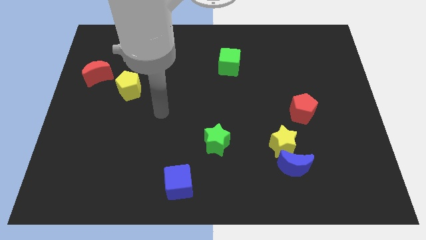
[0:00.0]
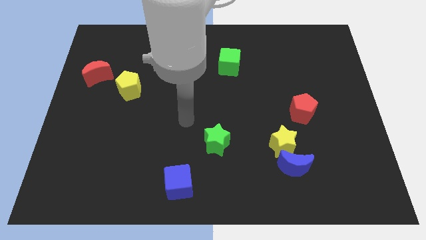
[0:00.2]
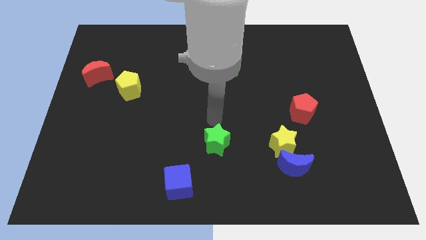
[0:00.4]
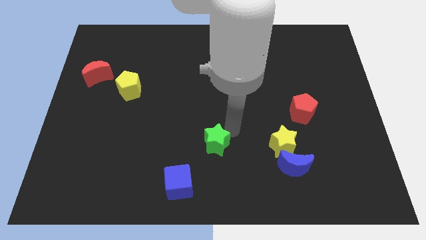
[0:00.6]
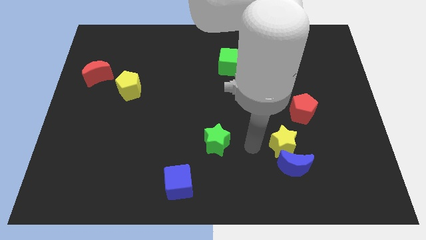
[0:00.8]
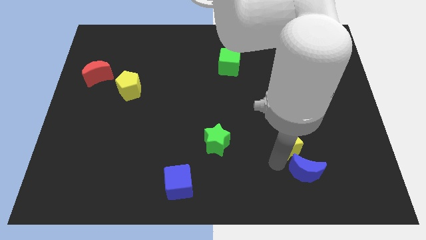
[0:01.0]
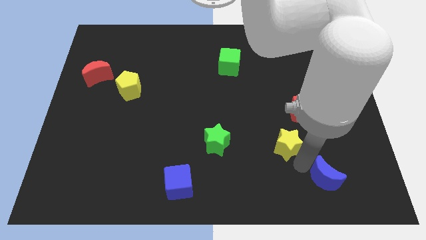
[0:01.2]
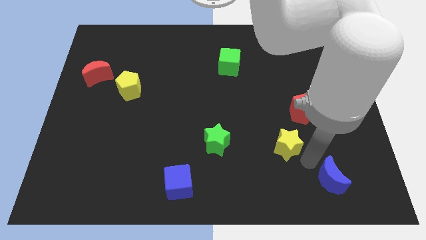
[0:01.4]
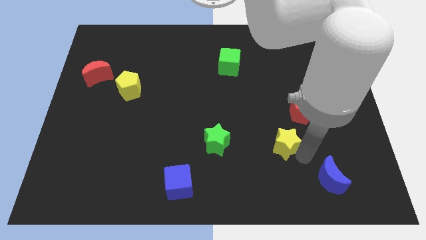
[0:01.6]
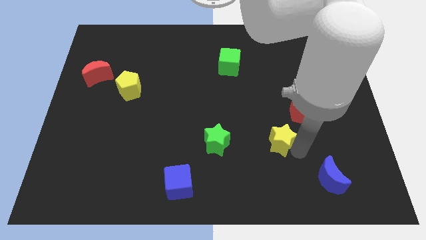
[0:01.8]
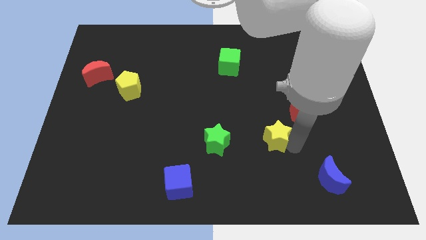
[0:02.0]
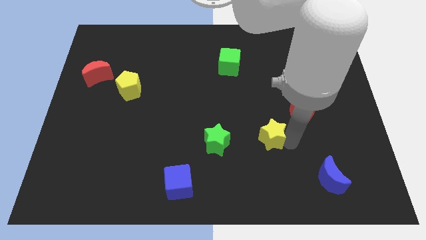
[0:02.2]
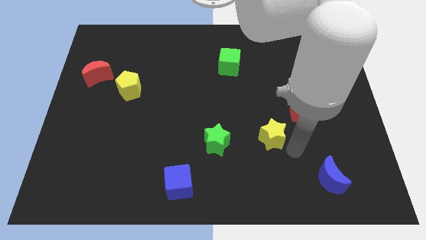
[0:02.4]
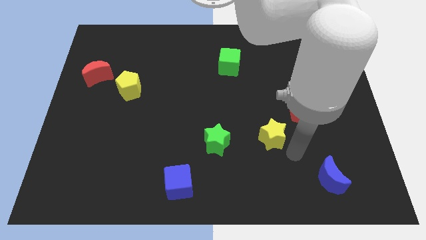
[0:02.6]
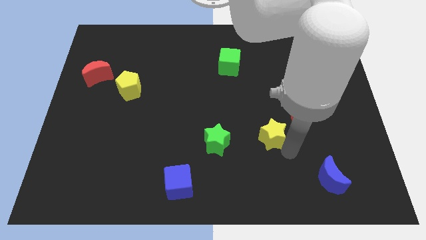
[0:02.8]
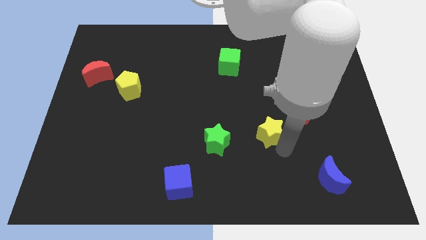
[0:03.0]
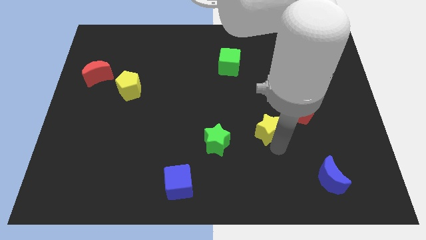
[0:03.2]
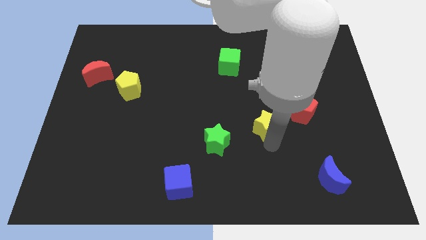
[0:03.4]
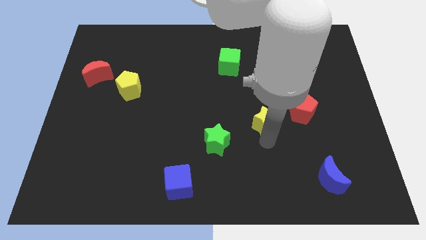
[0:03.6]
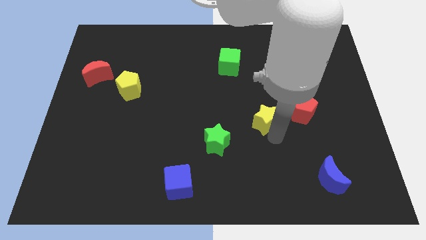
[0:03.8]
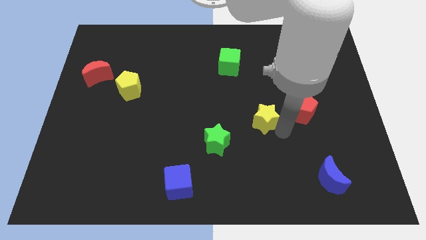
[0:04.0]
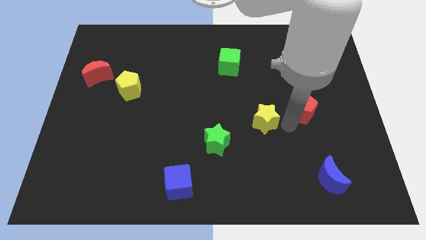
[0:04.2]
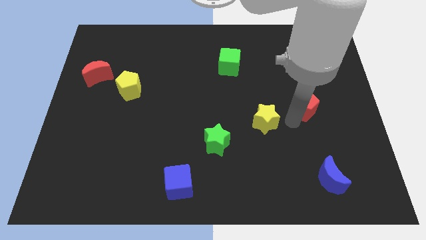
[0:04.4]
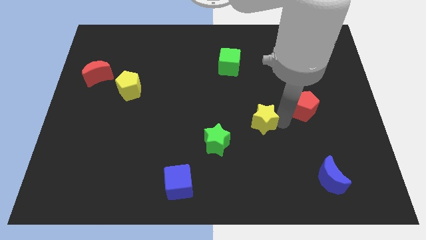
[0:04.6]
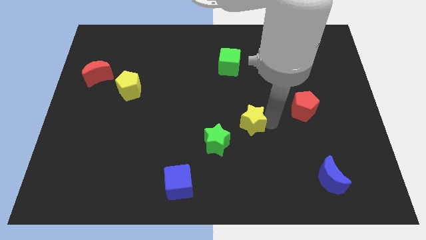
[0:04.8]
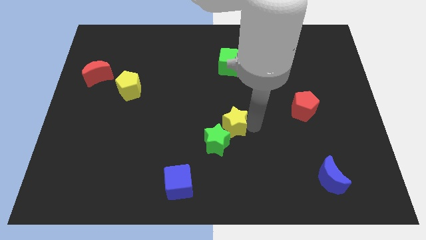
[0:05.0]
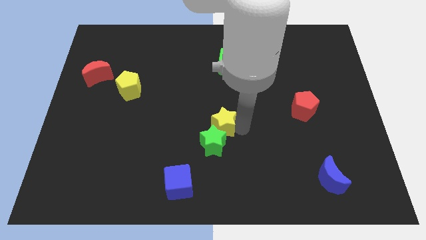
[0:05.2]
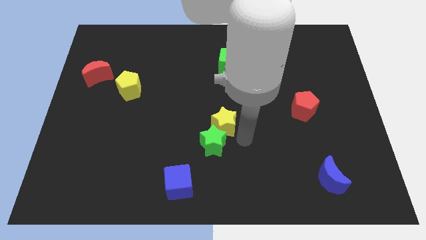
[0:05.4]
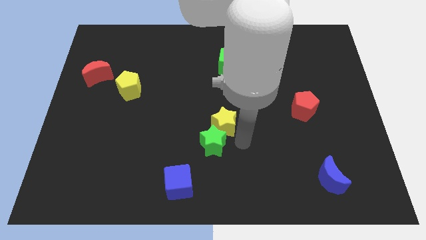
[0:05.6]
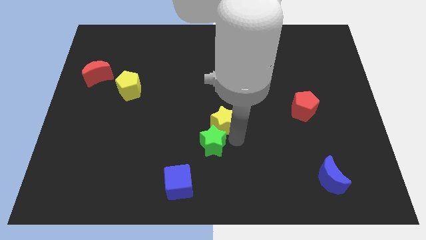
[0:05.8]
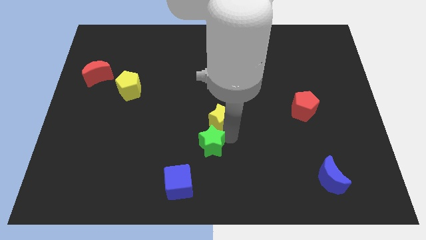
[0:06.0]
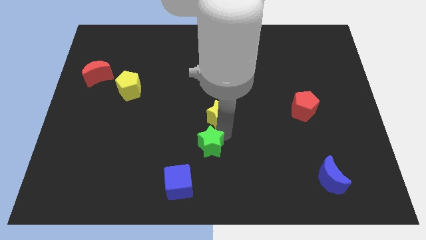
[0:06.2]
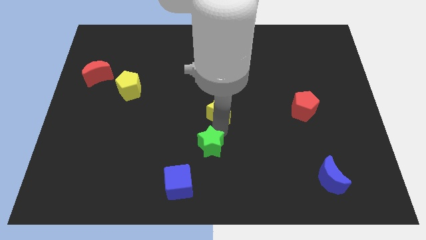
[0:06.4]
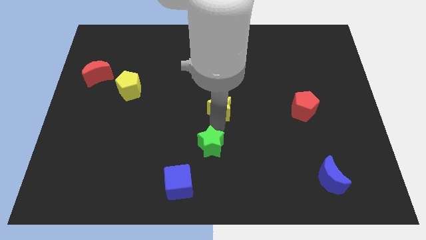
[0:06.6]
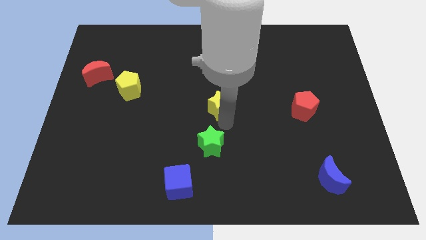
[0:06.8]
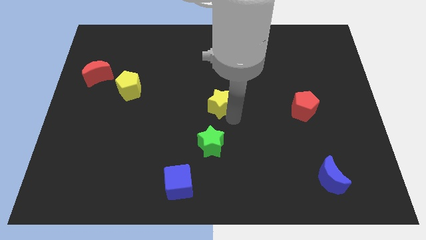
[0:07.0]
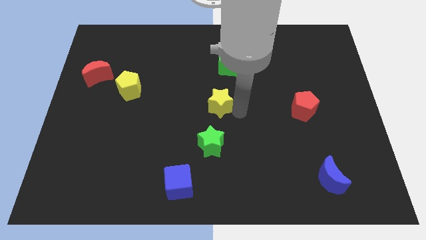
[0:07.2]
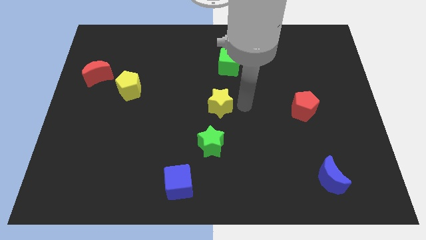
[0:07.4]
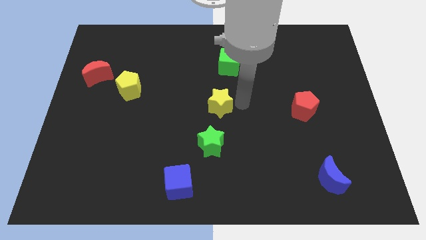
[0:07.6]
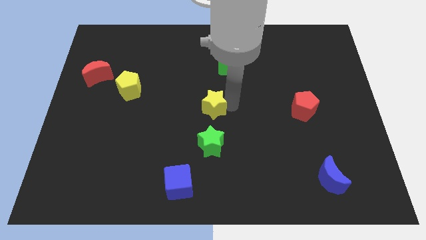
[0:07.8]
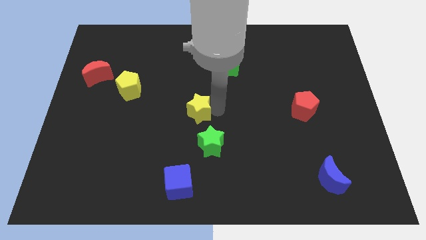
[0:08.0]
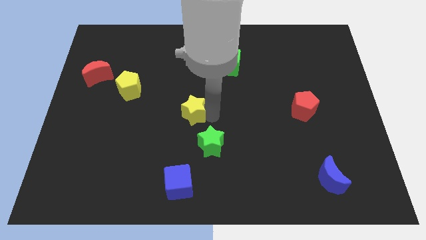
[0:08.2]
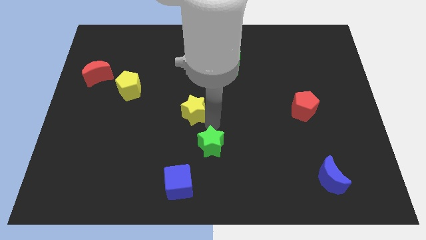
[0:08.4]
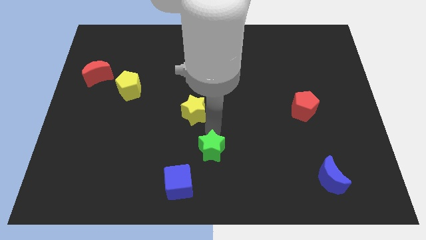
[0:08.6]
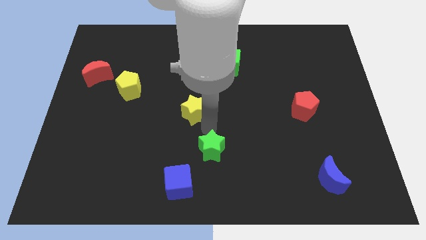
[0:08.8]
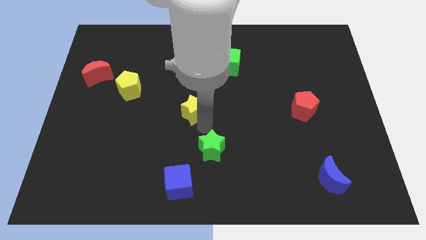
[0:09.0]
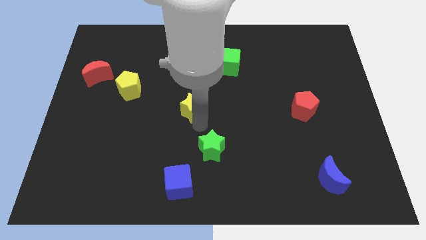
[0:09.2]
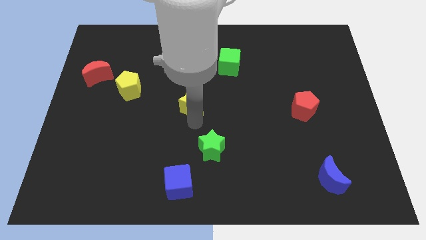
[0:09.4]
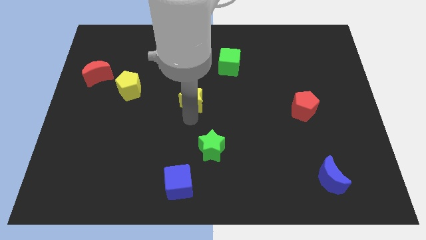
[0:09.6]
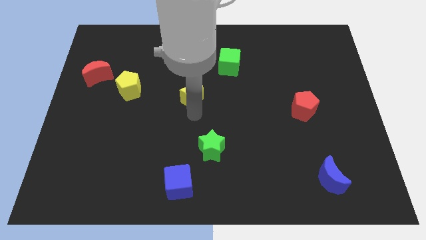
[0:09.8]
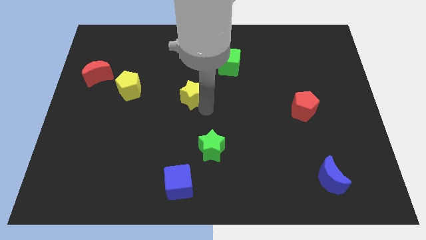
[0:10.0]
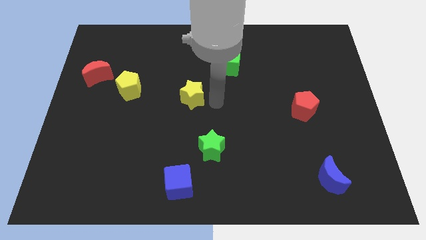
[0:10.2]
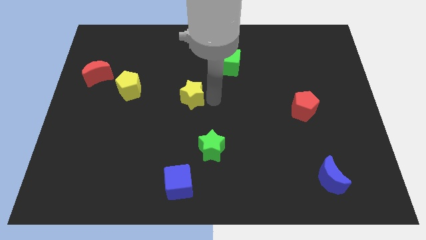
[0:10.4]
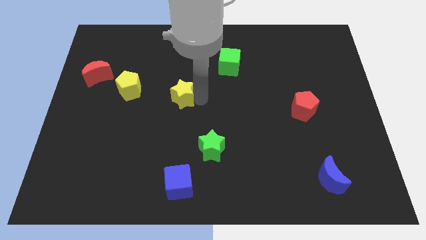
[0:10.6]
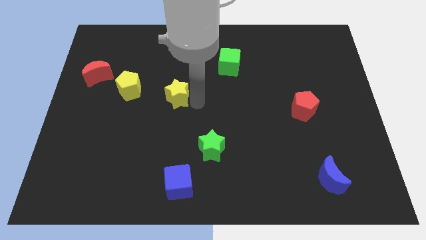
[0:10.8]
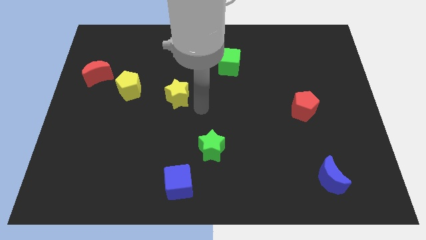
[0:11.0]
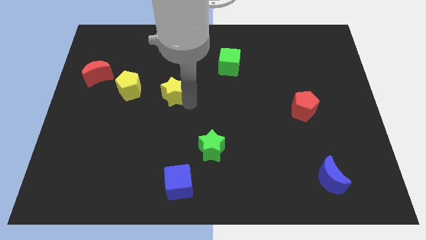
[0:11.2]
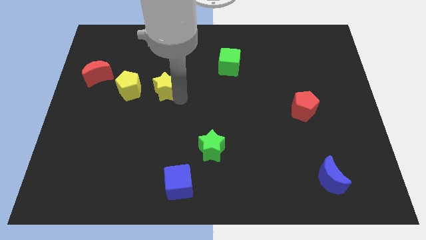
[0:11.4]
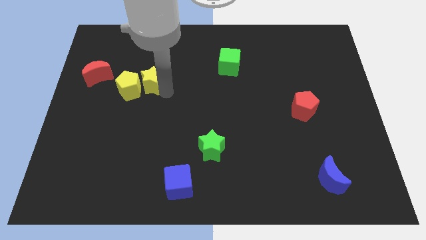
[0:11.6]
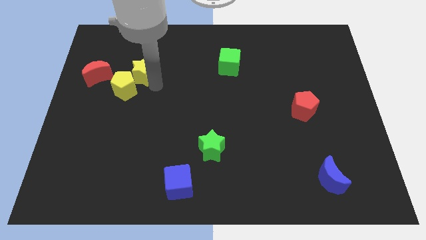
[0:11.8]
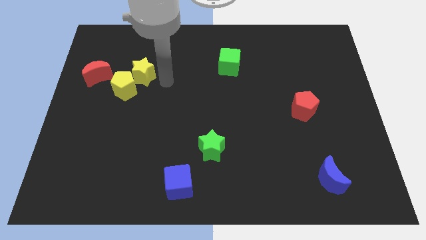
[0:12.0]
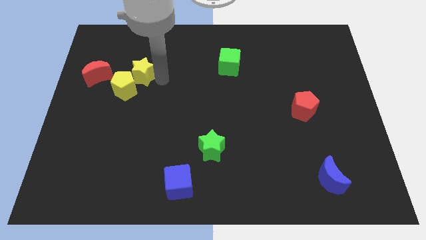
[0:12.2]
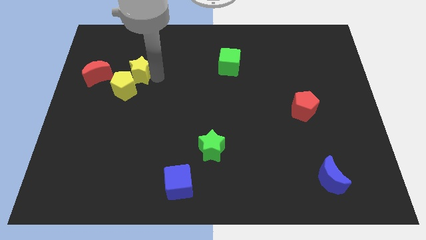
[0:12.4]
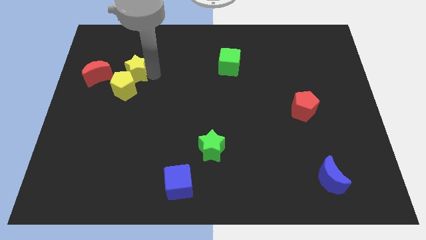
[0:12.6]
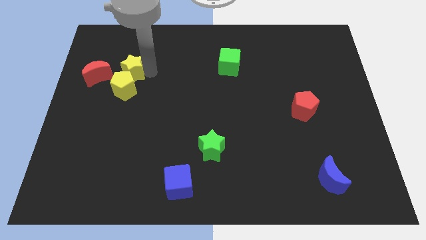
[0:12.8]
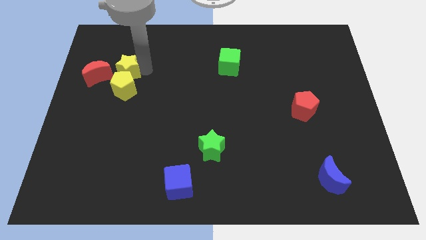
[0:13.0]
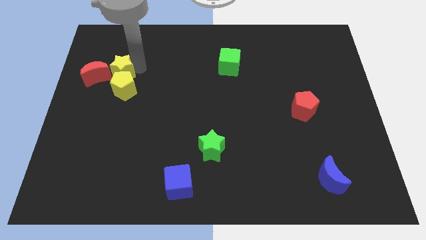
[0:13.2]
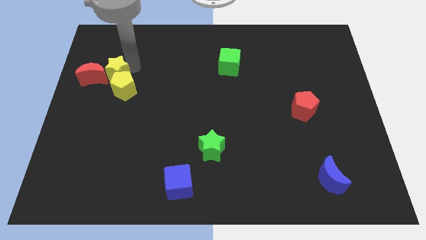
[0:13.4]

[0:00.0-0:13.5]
put the yellow star to the red moon

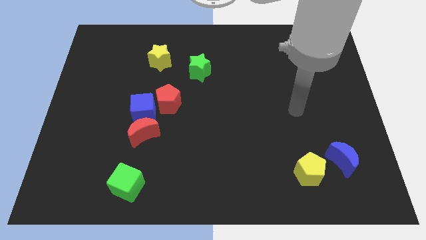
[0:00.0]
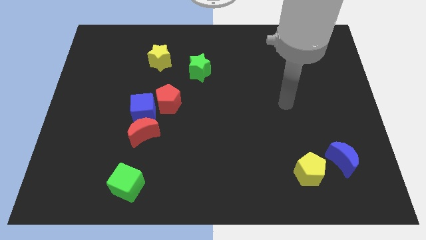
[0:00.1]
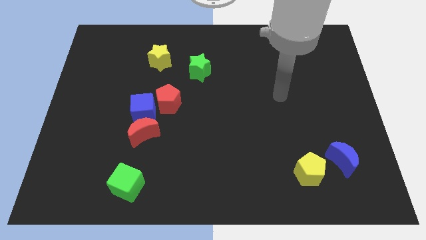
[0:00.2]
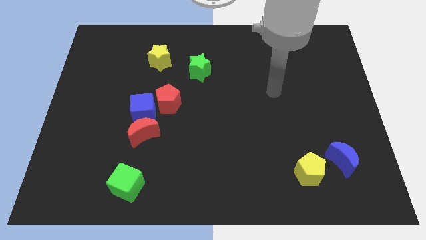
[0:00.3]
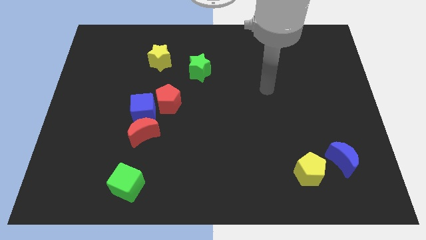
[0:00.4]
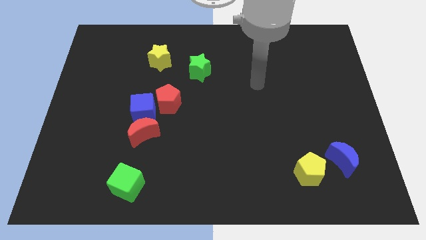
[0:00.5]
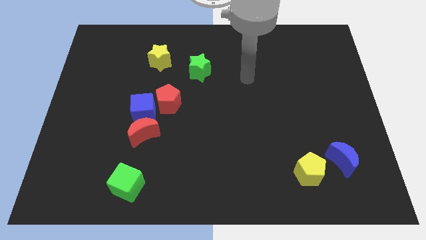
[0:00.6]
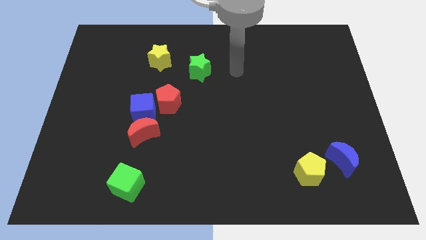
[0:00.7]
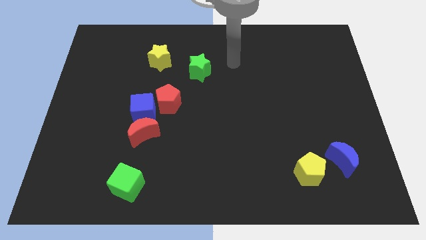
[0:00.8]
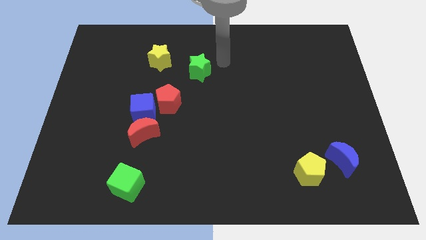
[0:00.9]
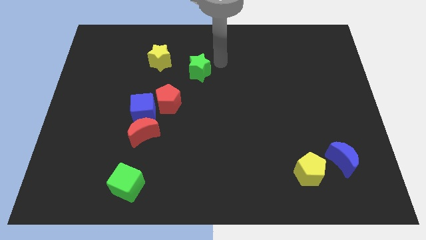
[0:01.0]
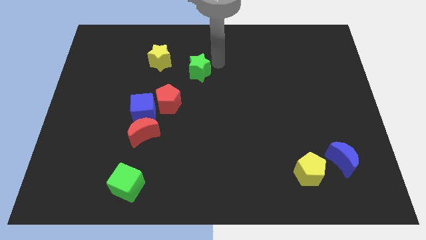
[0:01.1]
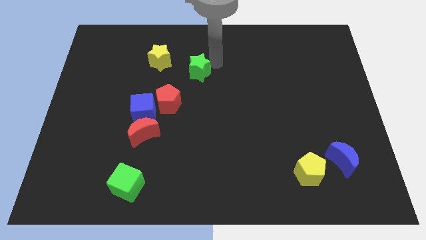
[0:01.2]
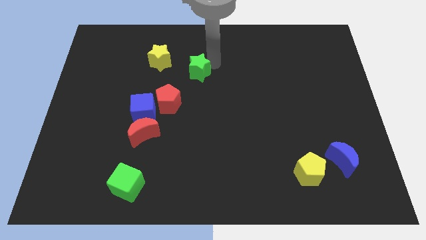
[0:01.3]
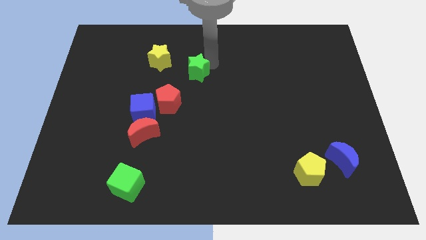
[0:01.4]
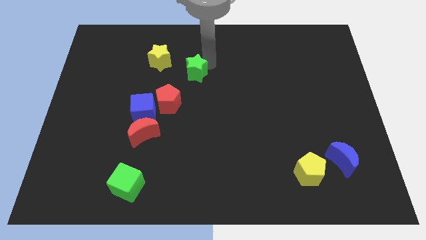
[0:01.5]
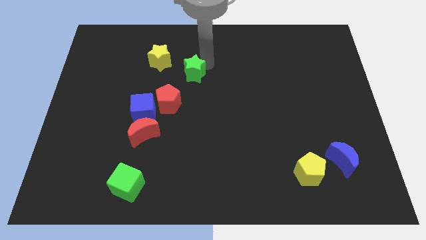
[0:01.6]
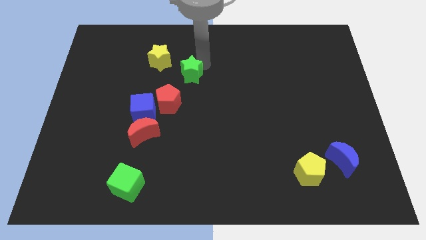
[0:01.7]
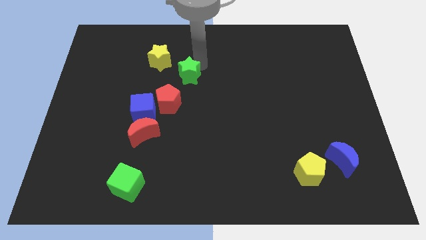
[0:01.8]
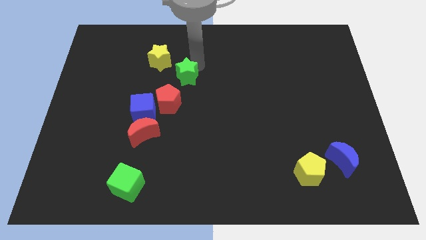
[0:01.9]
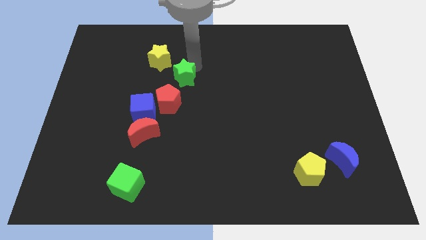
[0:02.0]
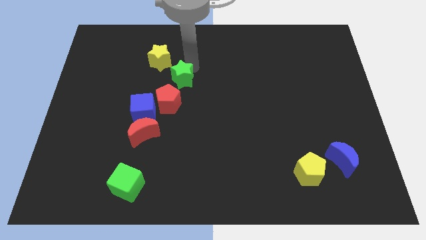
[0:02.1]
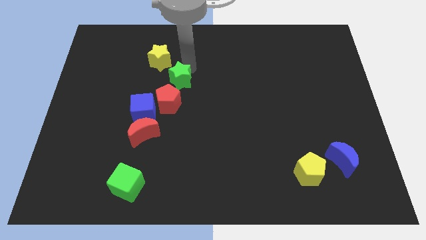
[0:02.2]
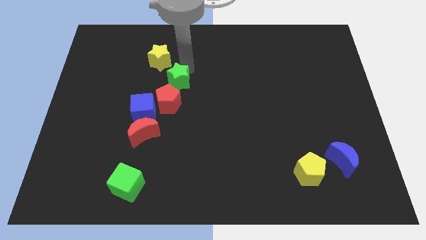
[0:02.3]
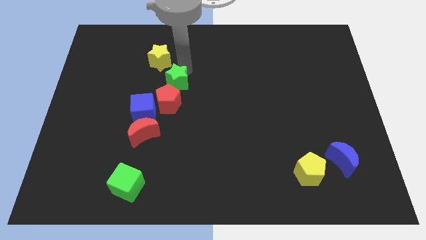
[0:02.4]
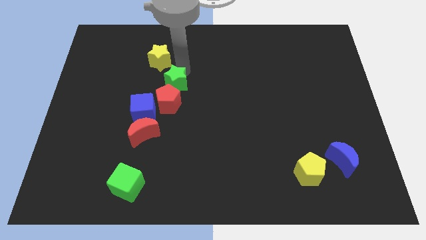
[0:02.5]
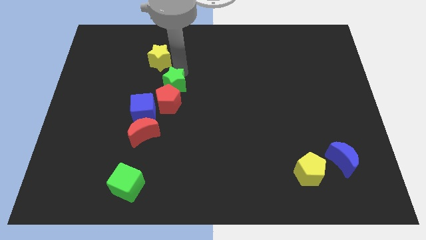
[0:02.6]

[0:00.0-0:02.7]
move the green star next to the red pentagon
